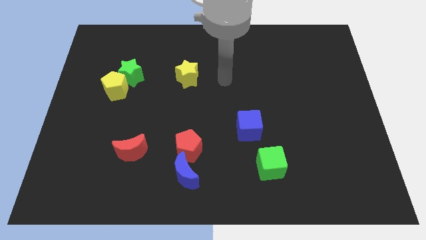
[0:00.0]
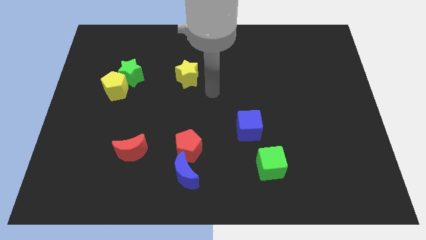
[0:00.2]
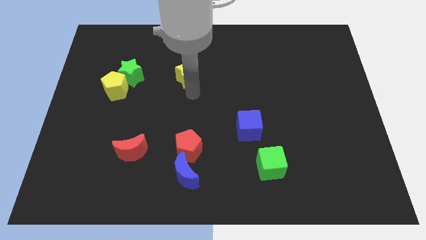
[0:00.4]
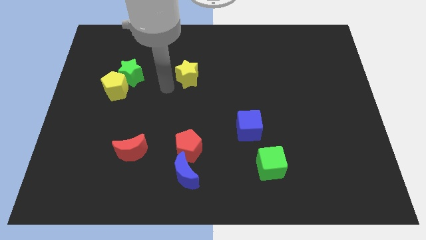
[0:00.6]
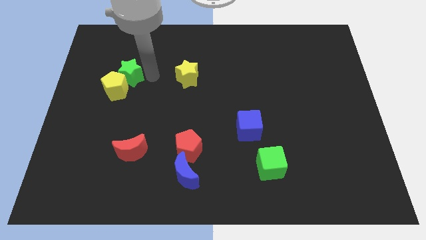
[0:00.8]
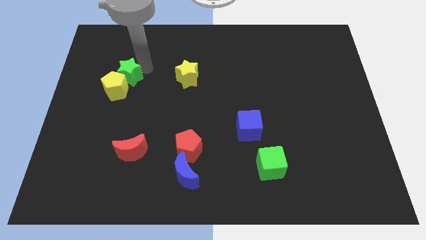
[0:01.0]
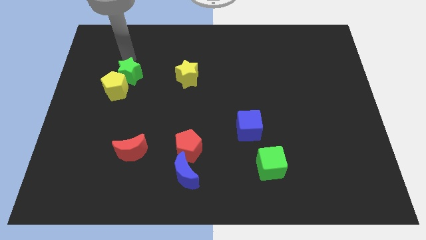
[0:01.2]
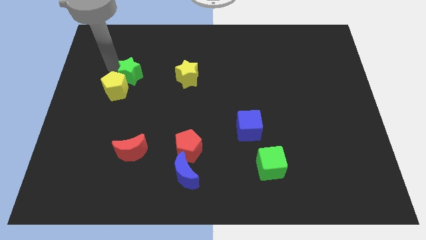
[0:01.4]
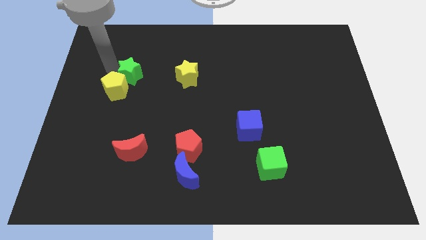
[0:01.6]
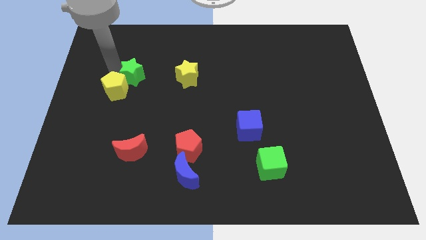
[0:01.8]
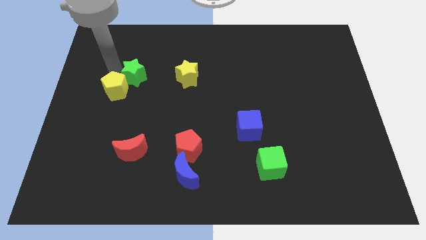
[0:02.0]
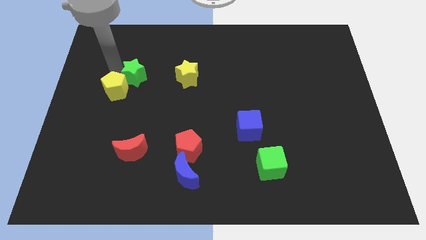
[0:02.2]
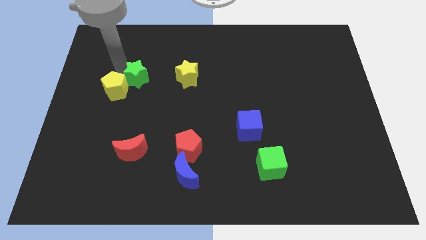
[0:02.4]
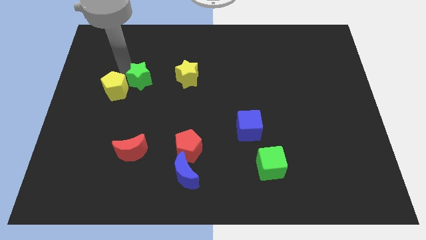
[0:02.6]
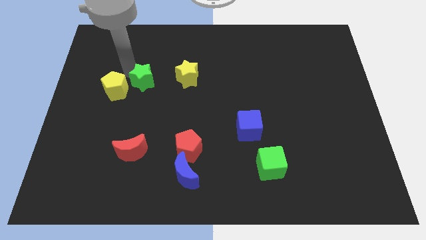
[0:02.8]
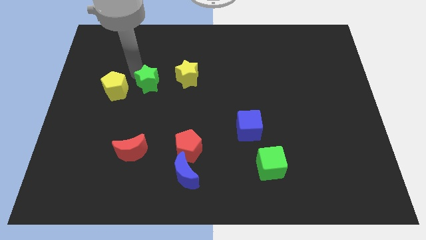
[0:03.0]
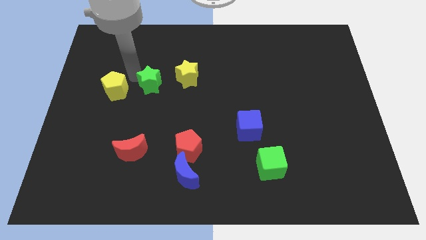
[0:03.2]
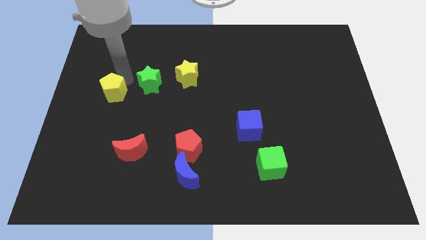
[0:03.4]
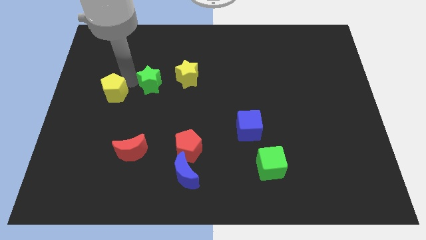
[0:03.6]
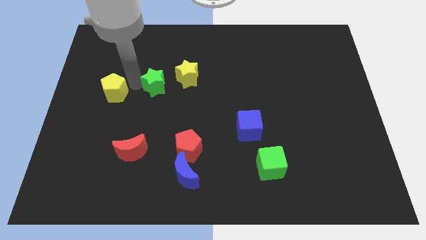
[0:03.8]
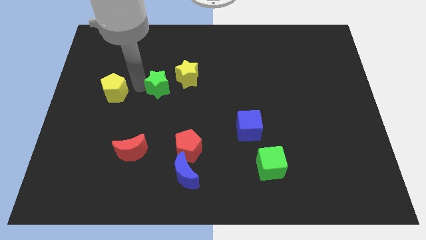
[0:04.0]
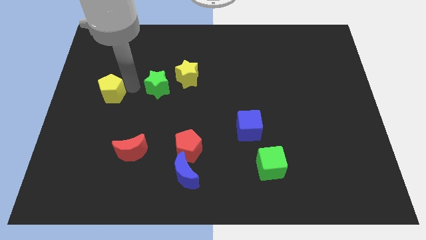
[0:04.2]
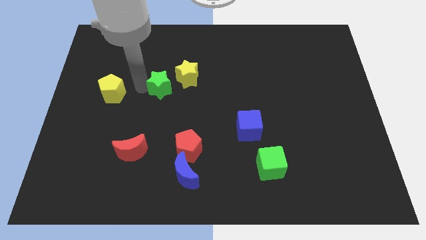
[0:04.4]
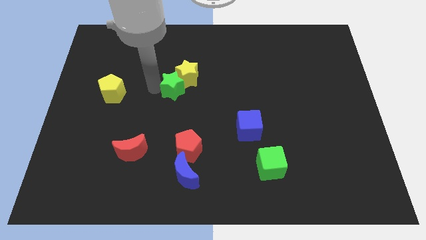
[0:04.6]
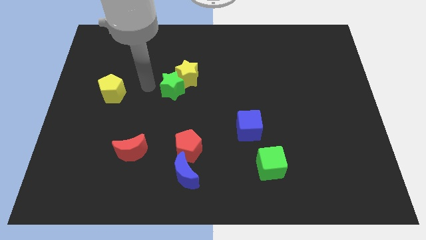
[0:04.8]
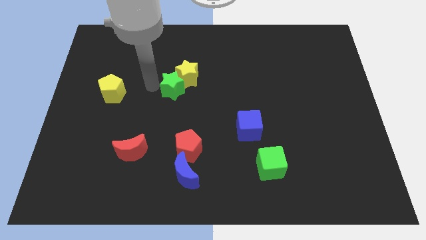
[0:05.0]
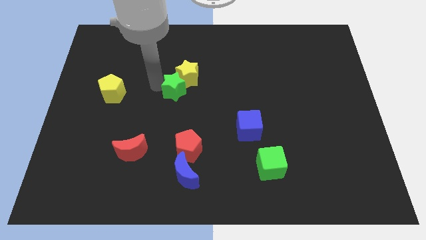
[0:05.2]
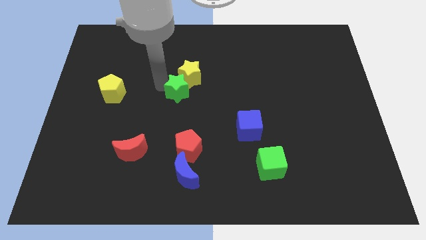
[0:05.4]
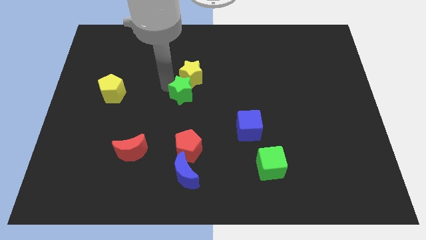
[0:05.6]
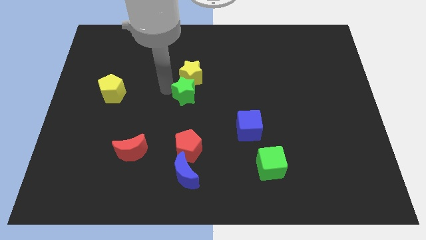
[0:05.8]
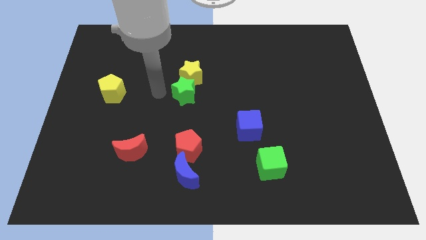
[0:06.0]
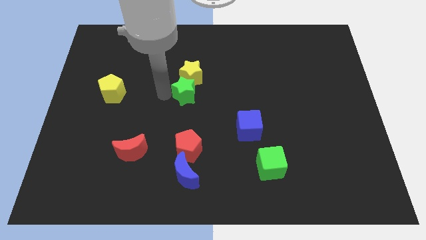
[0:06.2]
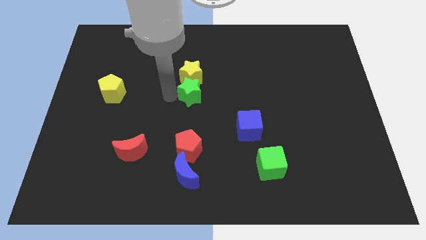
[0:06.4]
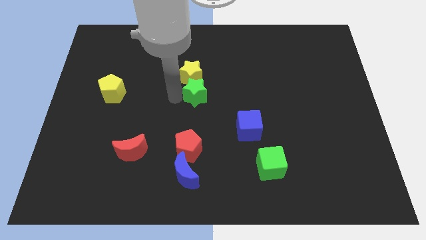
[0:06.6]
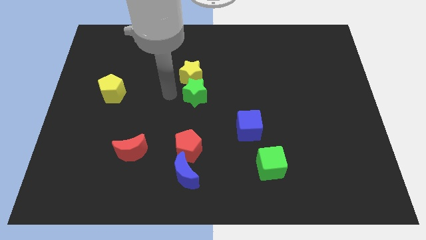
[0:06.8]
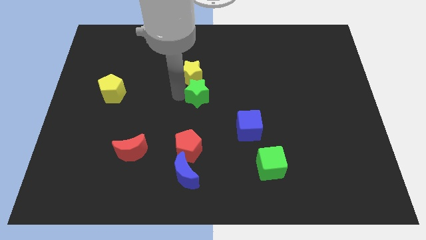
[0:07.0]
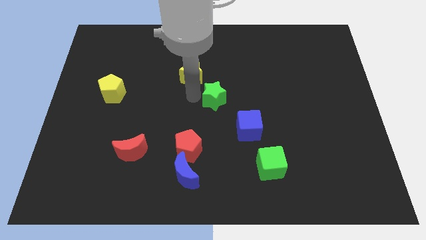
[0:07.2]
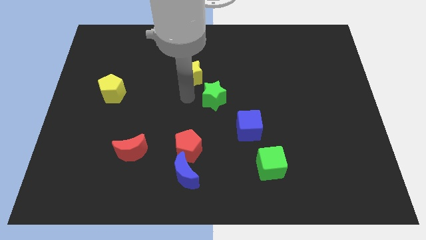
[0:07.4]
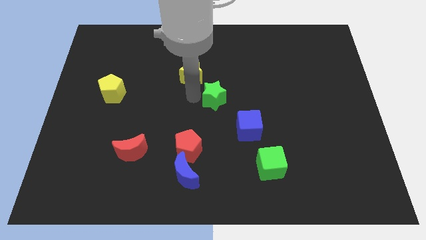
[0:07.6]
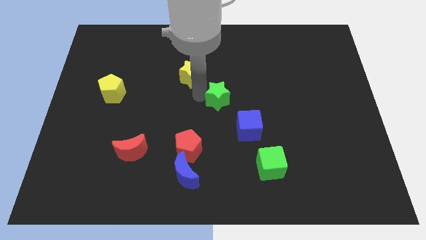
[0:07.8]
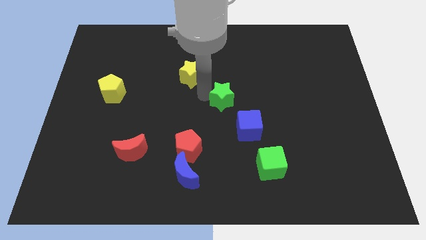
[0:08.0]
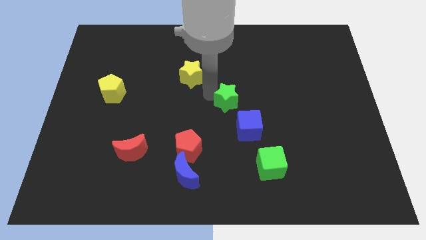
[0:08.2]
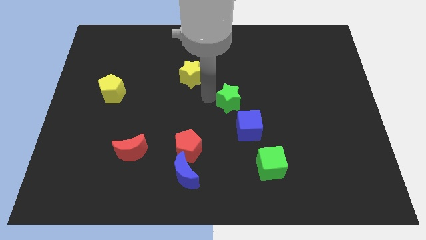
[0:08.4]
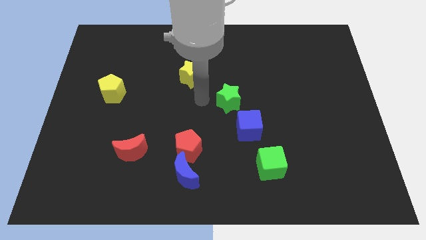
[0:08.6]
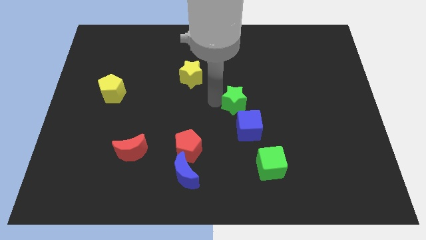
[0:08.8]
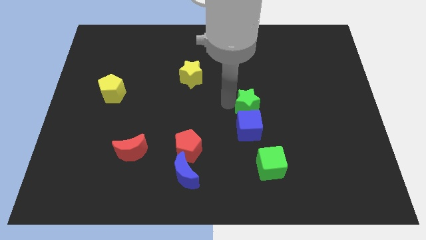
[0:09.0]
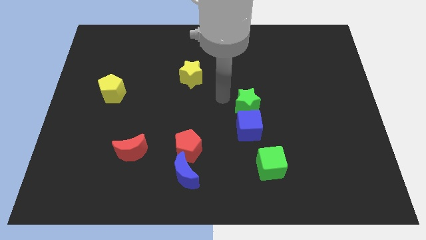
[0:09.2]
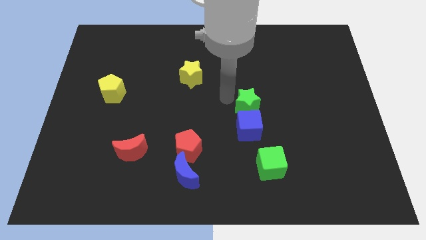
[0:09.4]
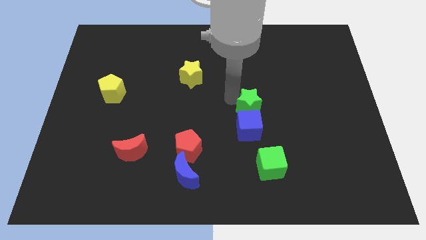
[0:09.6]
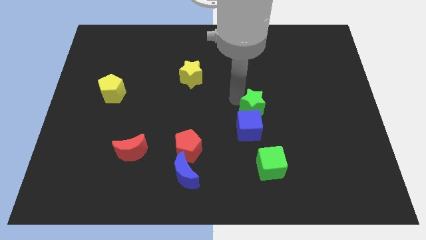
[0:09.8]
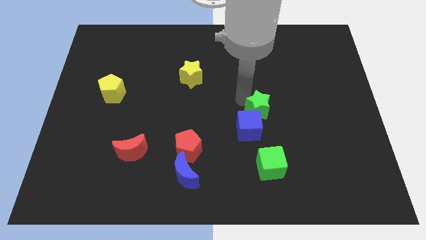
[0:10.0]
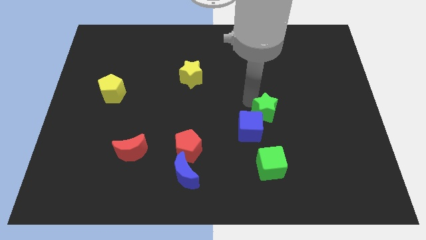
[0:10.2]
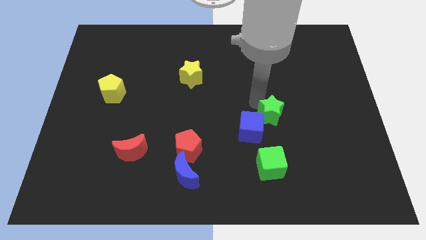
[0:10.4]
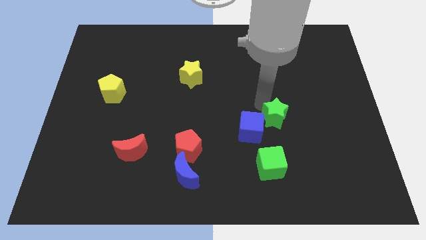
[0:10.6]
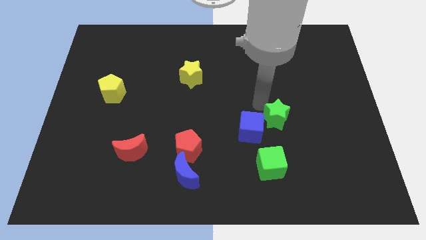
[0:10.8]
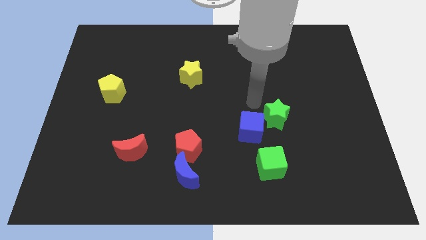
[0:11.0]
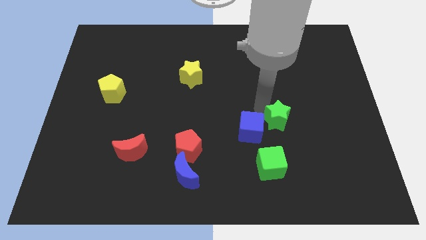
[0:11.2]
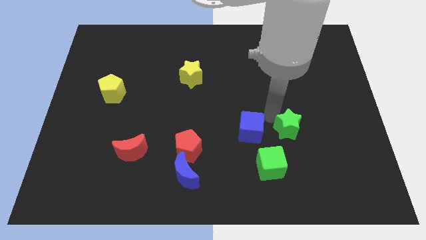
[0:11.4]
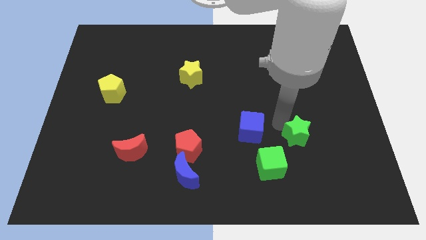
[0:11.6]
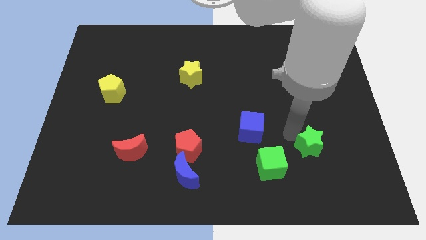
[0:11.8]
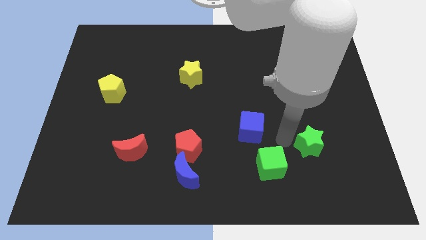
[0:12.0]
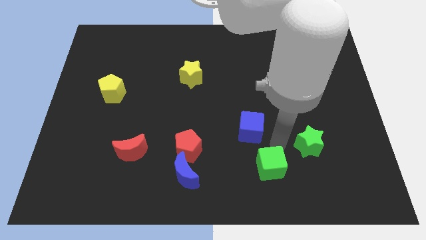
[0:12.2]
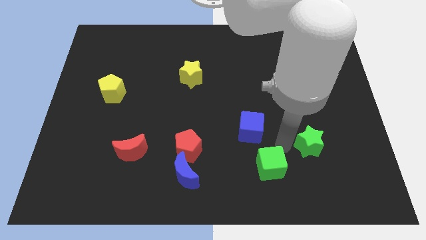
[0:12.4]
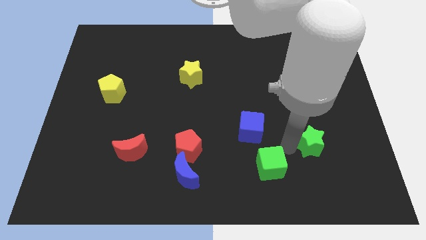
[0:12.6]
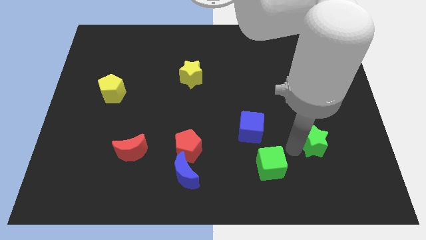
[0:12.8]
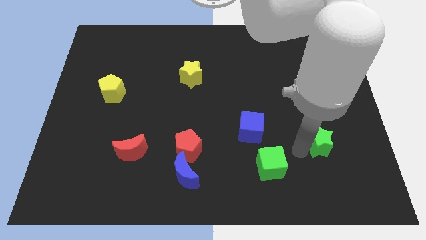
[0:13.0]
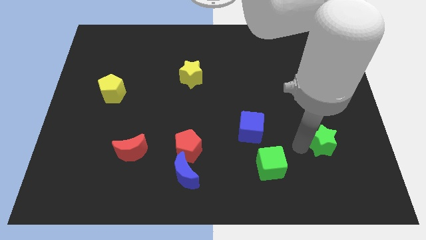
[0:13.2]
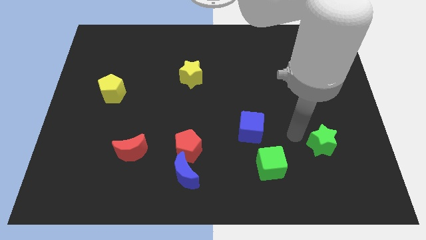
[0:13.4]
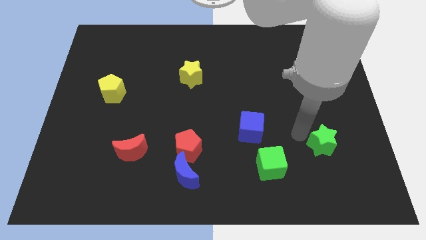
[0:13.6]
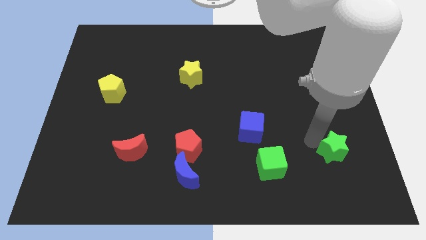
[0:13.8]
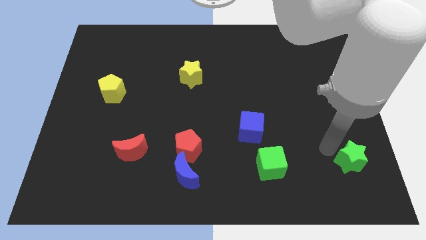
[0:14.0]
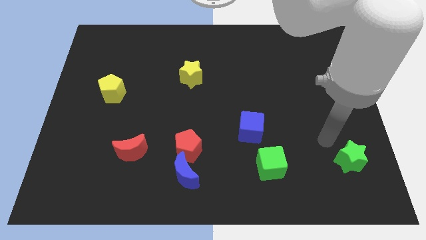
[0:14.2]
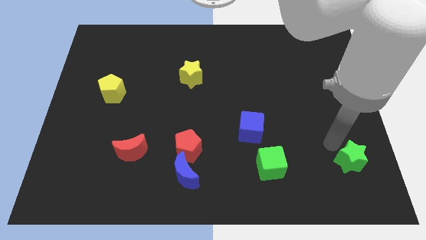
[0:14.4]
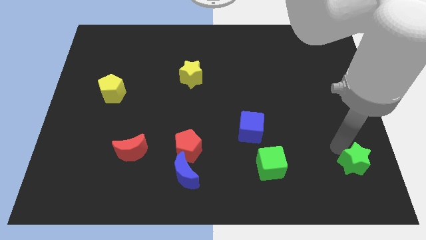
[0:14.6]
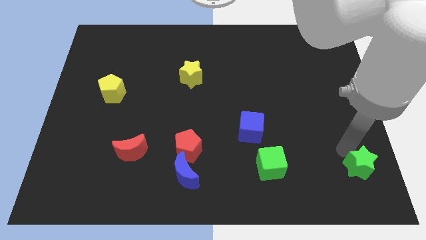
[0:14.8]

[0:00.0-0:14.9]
slide the green star to the lower right corner

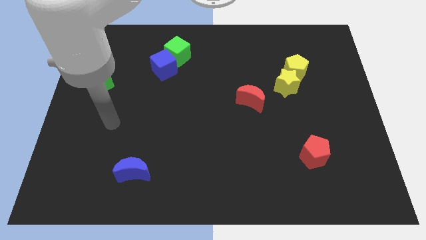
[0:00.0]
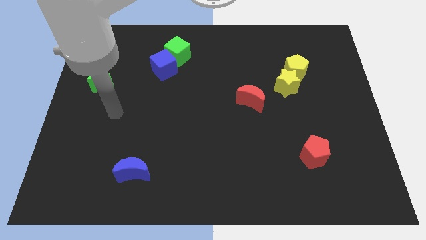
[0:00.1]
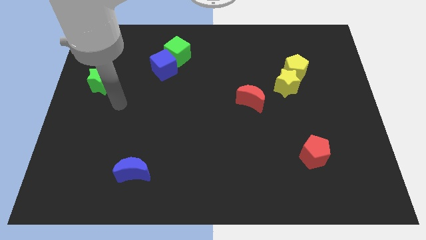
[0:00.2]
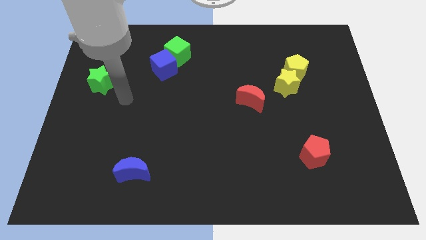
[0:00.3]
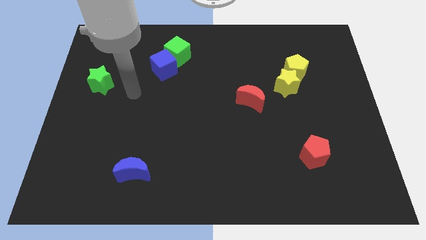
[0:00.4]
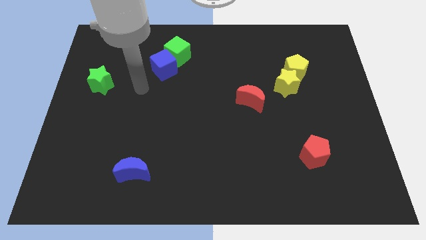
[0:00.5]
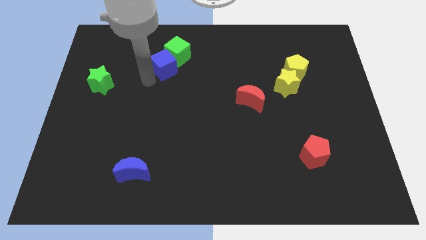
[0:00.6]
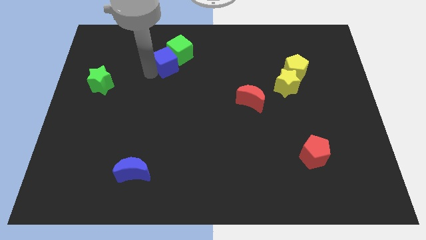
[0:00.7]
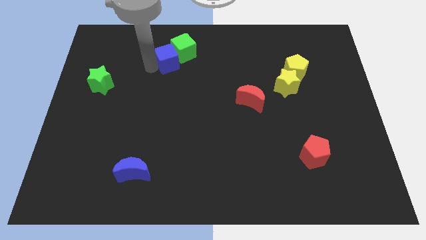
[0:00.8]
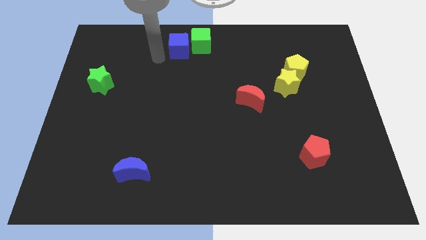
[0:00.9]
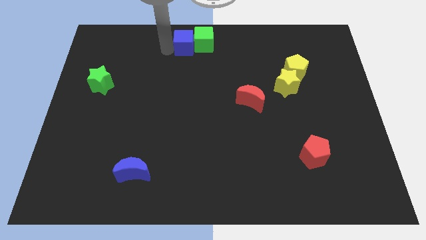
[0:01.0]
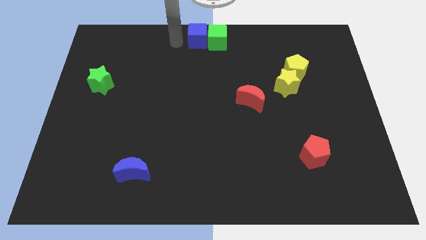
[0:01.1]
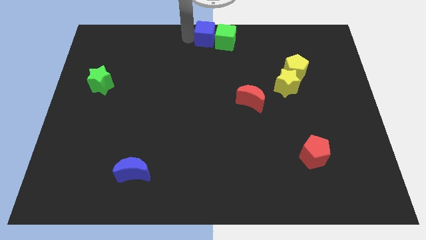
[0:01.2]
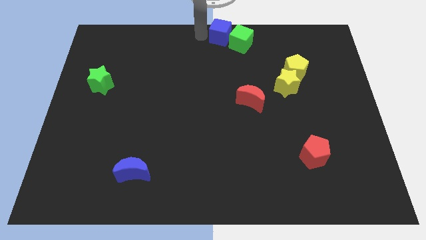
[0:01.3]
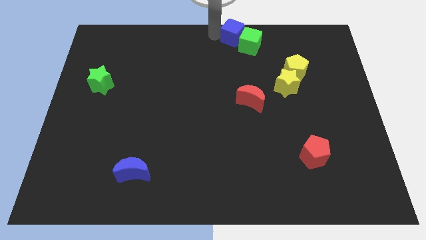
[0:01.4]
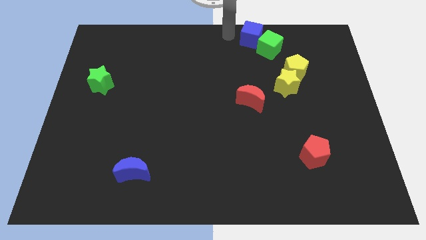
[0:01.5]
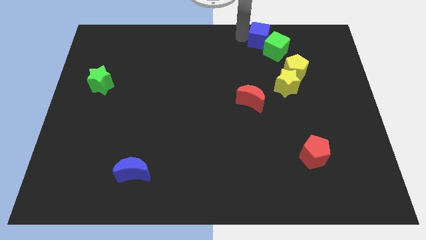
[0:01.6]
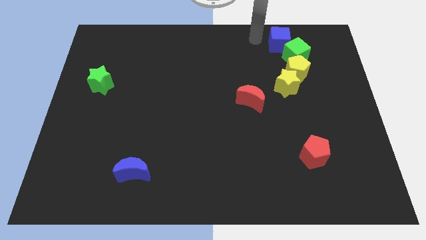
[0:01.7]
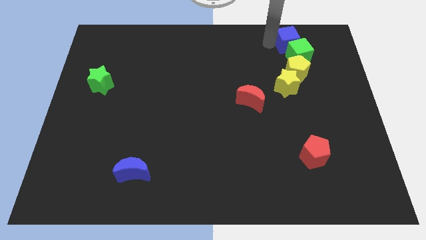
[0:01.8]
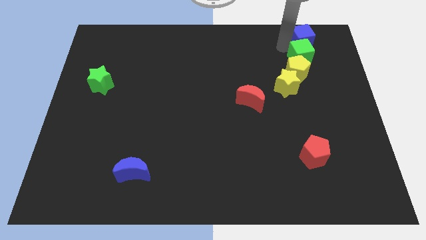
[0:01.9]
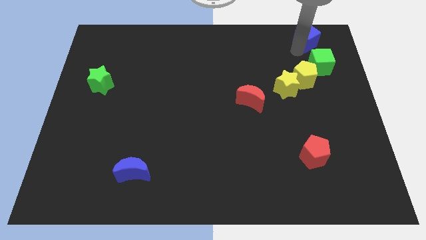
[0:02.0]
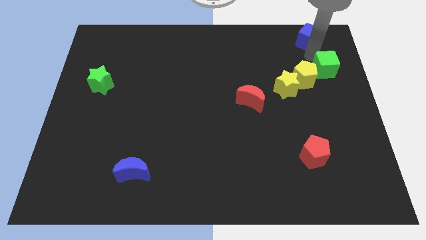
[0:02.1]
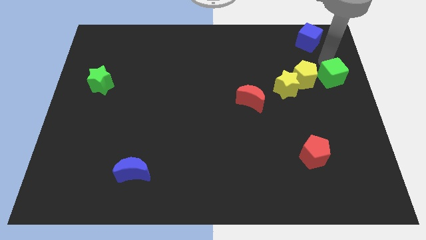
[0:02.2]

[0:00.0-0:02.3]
push the green cube to the right side of the board
